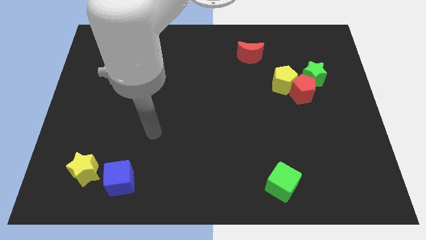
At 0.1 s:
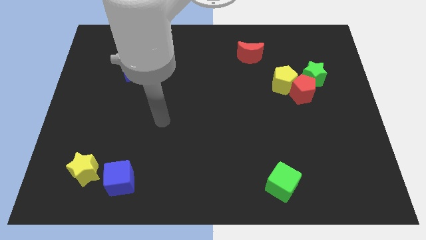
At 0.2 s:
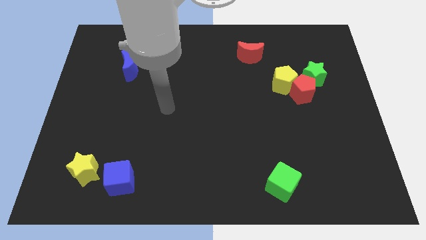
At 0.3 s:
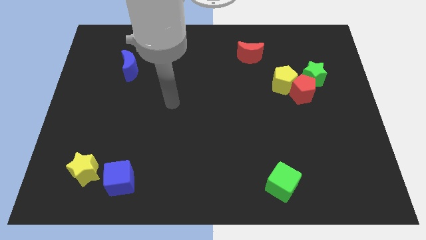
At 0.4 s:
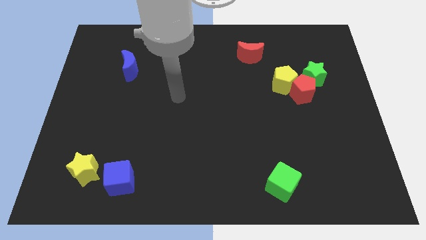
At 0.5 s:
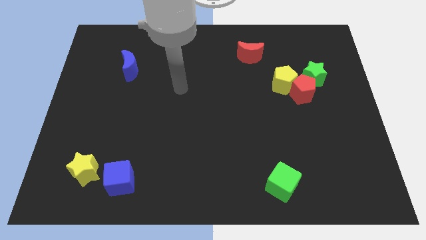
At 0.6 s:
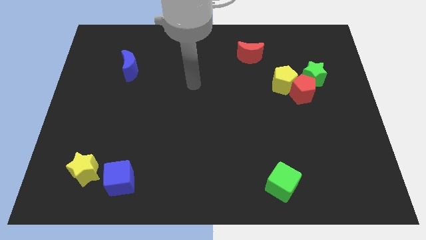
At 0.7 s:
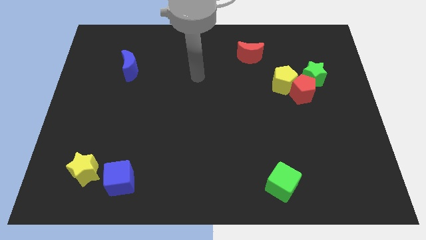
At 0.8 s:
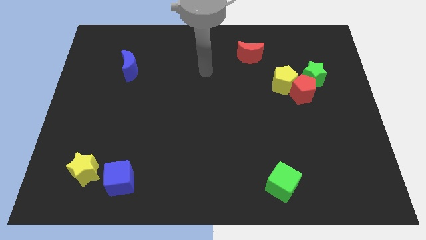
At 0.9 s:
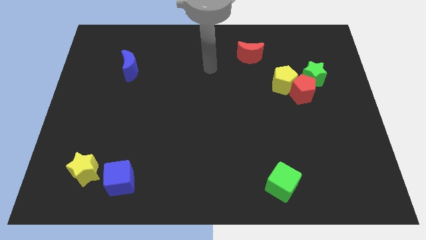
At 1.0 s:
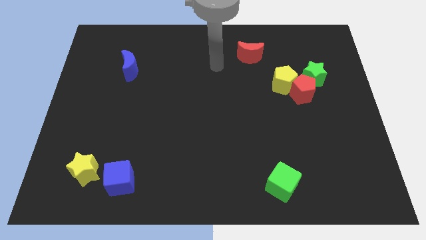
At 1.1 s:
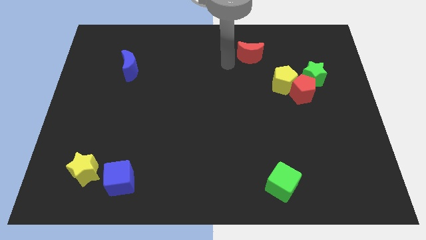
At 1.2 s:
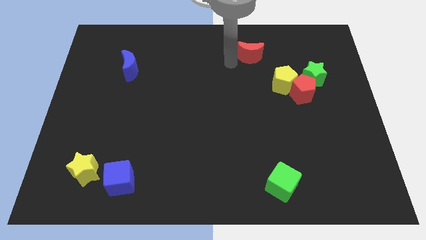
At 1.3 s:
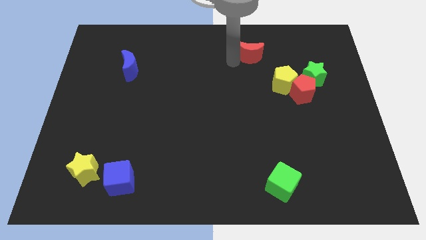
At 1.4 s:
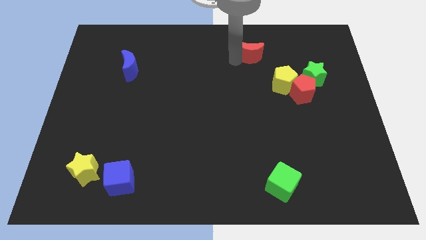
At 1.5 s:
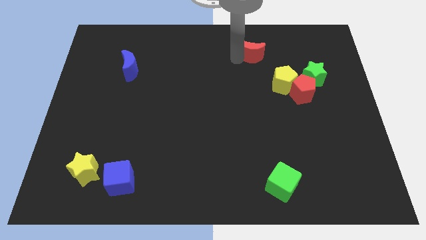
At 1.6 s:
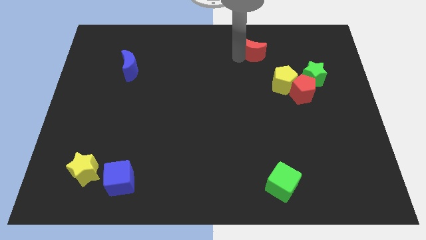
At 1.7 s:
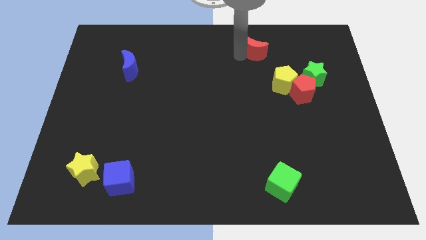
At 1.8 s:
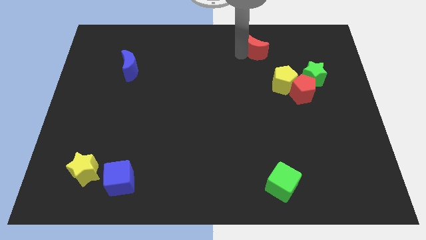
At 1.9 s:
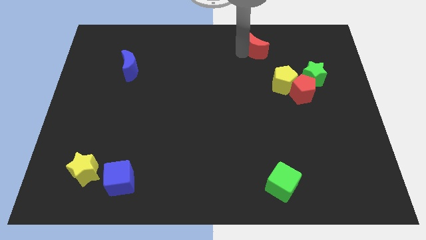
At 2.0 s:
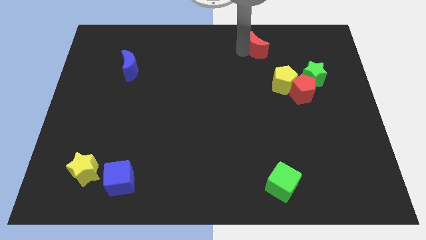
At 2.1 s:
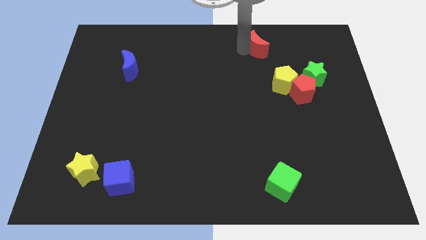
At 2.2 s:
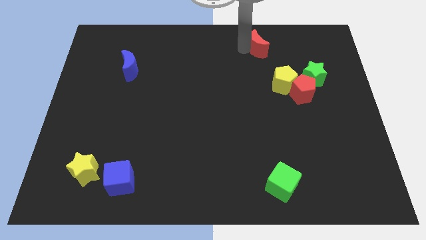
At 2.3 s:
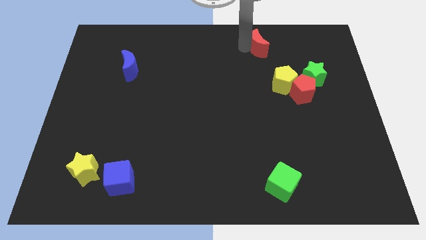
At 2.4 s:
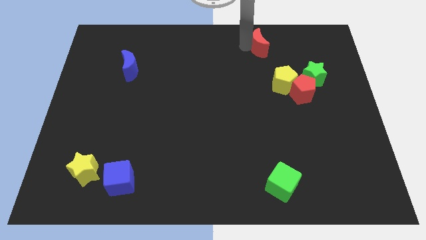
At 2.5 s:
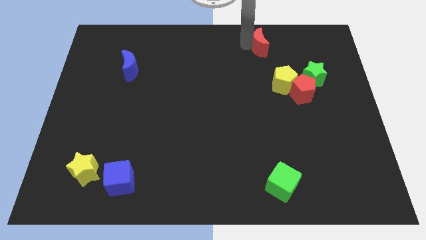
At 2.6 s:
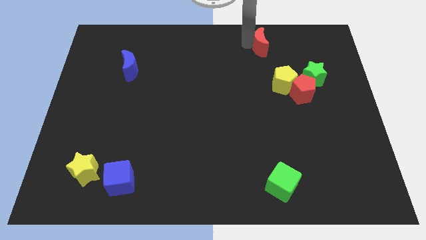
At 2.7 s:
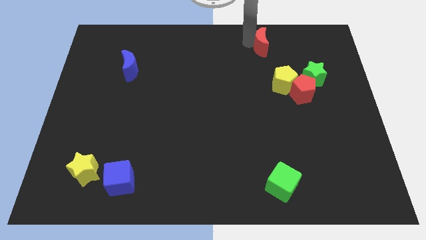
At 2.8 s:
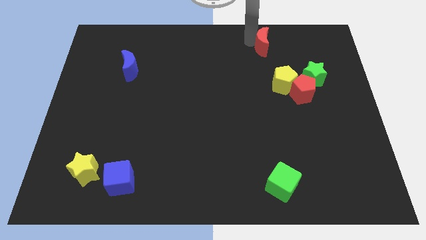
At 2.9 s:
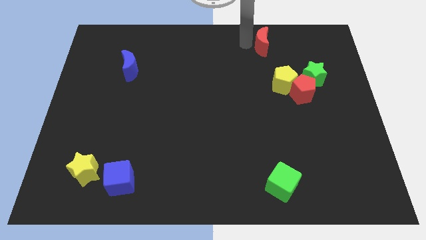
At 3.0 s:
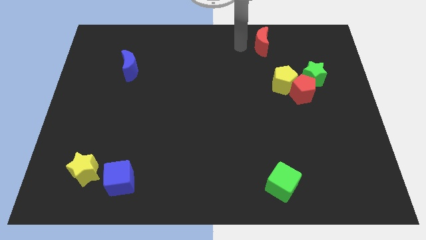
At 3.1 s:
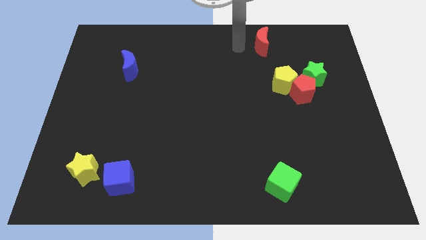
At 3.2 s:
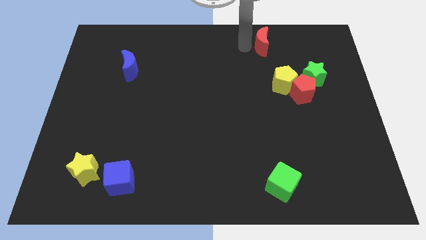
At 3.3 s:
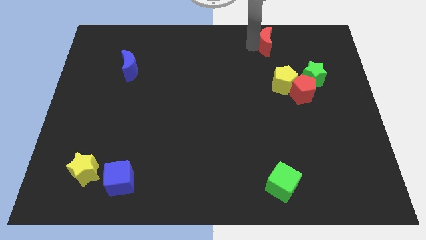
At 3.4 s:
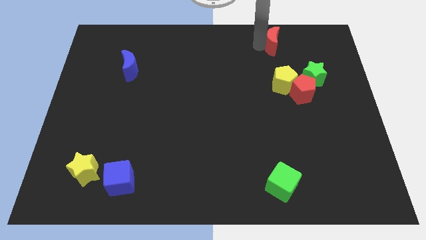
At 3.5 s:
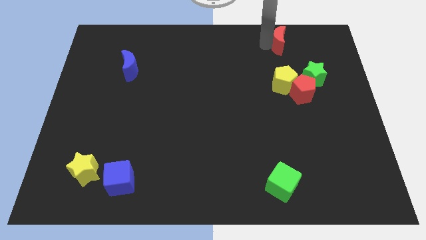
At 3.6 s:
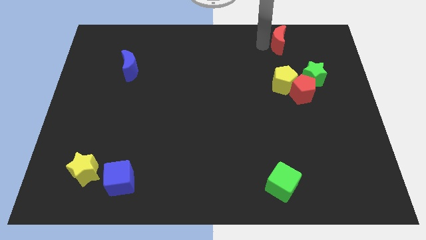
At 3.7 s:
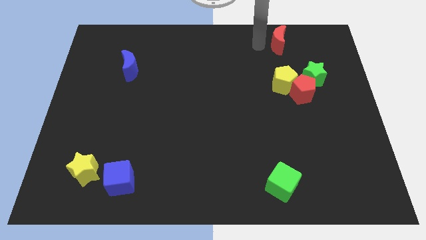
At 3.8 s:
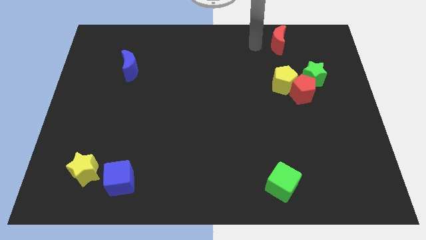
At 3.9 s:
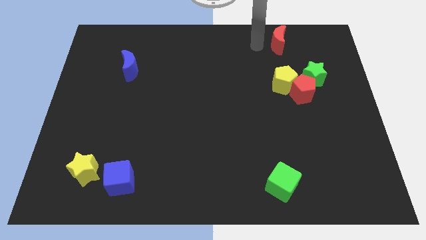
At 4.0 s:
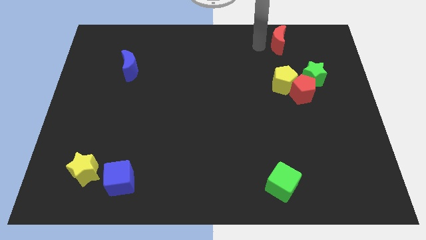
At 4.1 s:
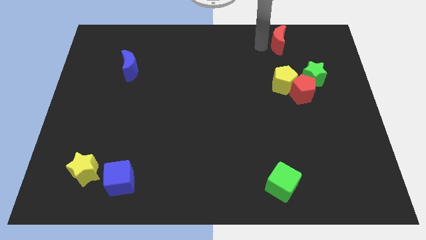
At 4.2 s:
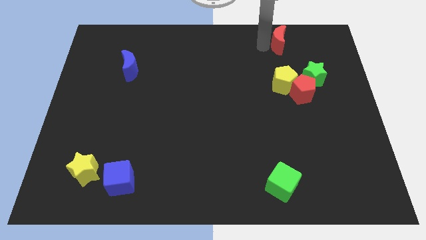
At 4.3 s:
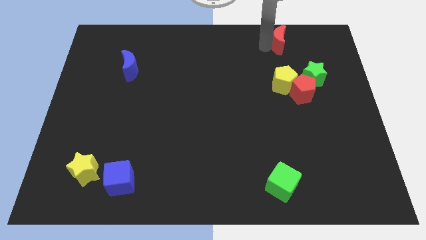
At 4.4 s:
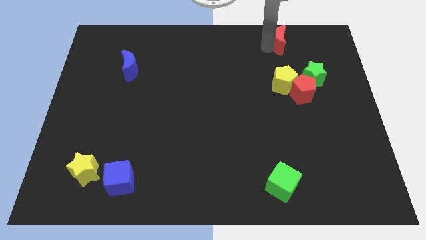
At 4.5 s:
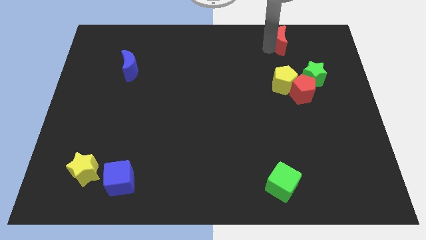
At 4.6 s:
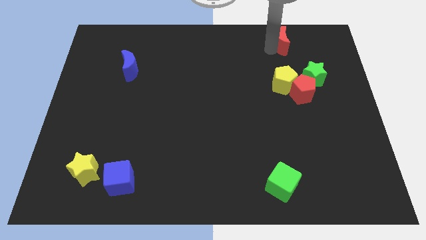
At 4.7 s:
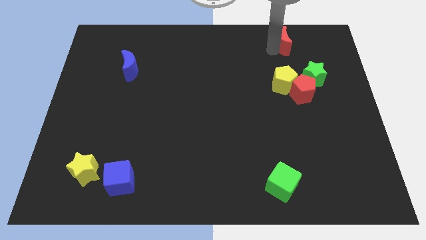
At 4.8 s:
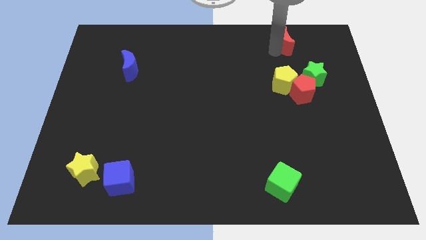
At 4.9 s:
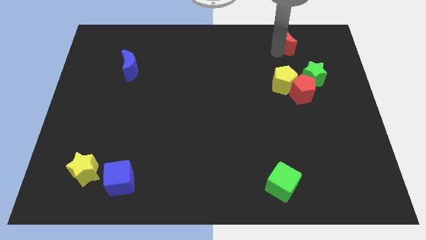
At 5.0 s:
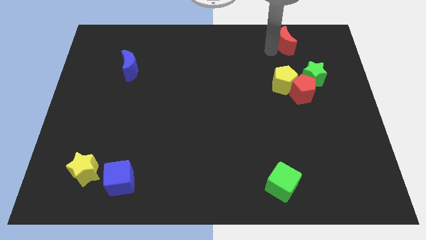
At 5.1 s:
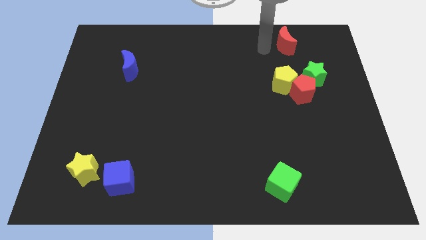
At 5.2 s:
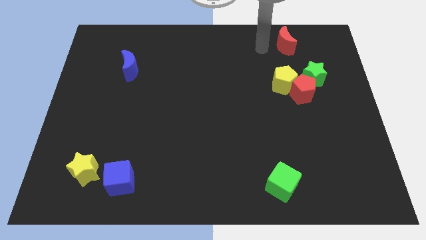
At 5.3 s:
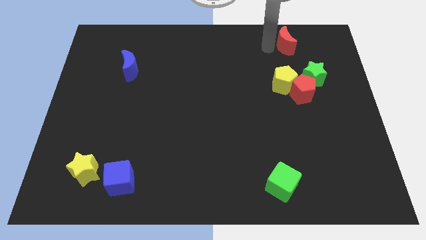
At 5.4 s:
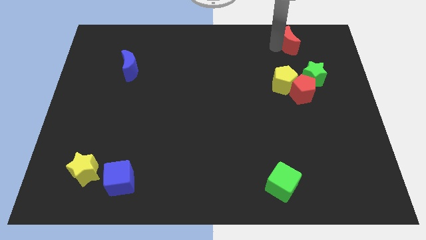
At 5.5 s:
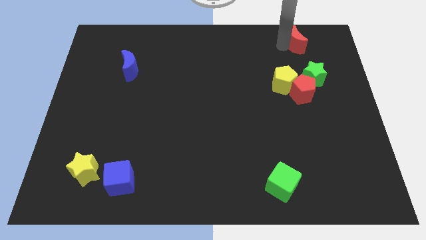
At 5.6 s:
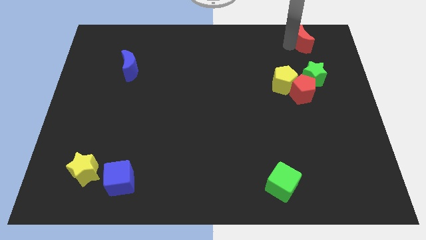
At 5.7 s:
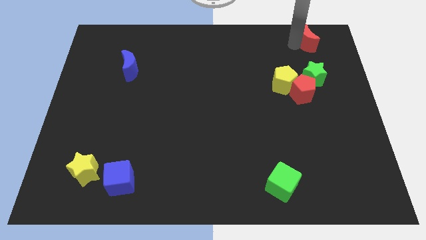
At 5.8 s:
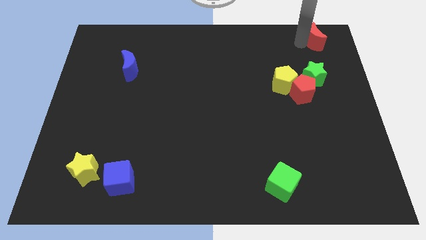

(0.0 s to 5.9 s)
put the red moon to the top right corner

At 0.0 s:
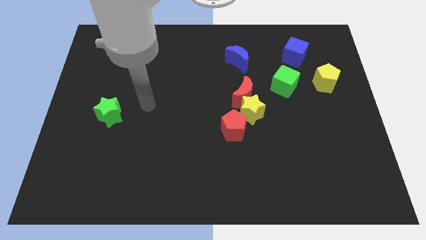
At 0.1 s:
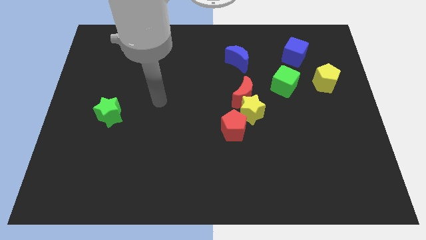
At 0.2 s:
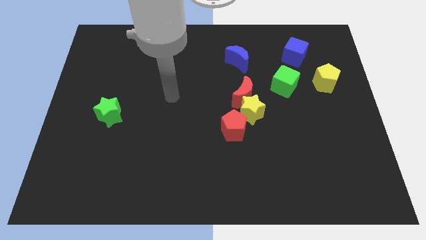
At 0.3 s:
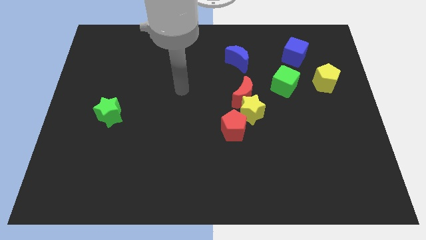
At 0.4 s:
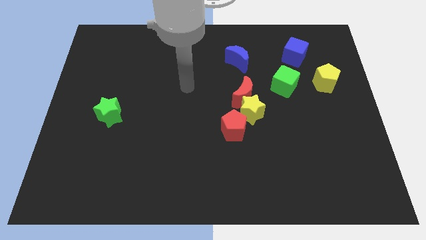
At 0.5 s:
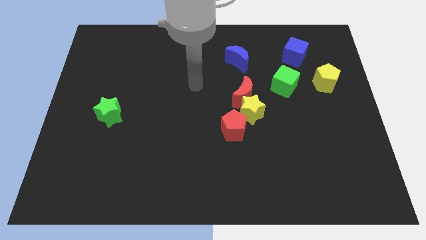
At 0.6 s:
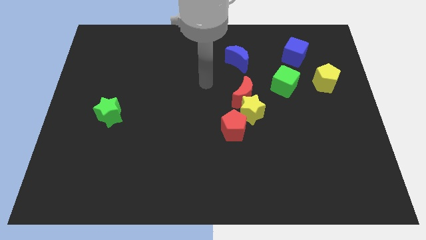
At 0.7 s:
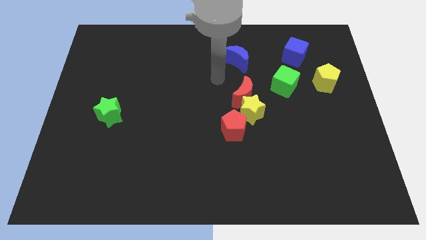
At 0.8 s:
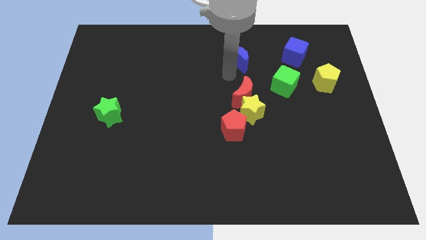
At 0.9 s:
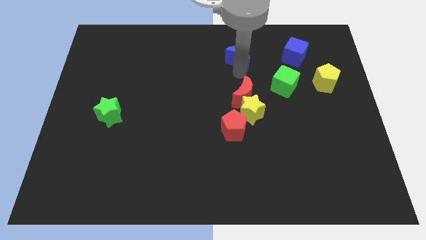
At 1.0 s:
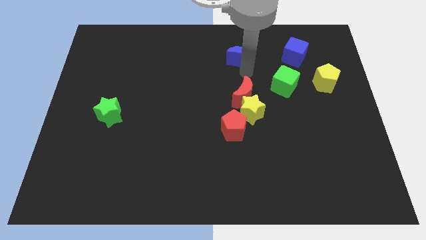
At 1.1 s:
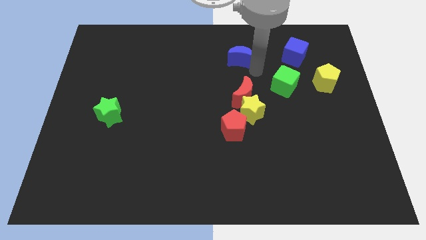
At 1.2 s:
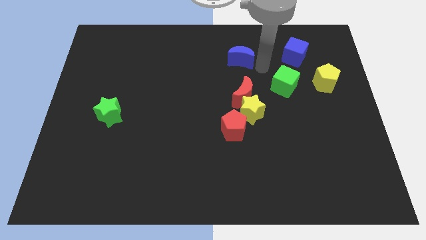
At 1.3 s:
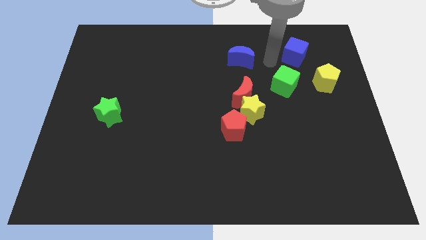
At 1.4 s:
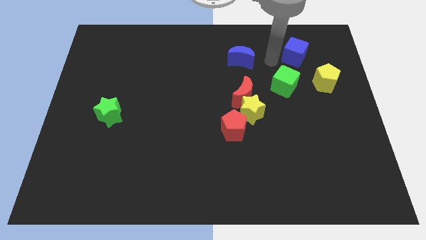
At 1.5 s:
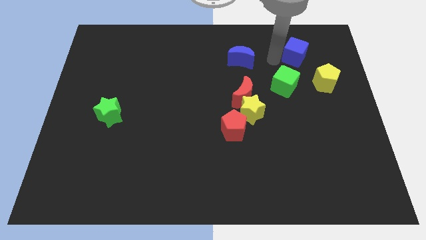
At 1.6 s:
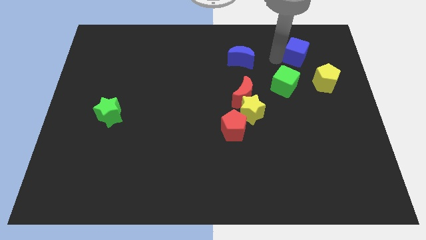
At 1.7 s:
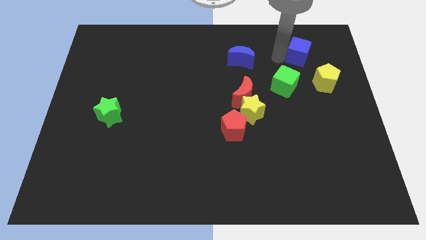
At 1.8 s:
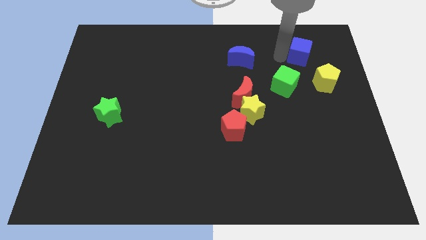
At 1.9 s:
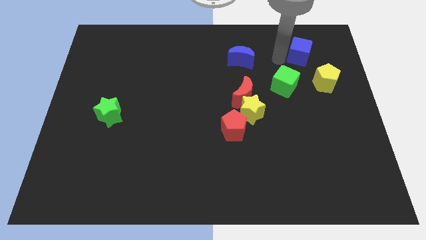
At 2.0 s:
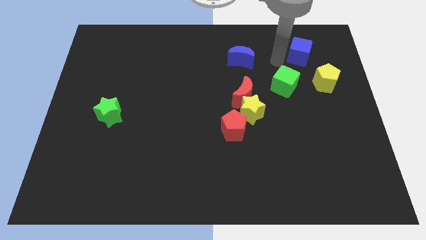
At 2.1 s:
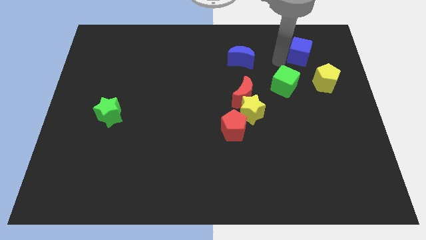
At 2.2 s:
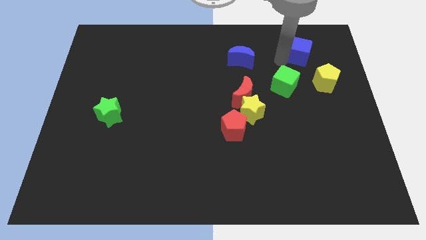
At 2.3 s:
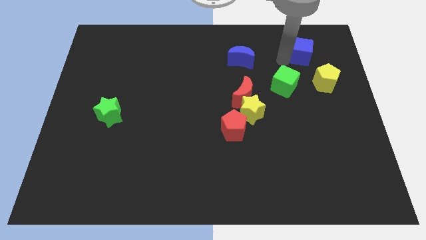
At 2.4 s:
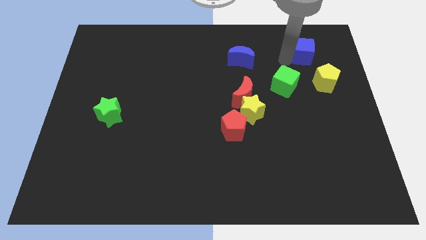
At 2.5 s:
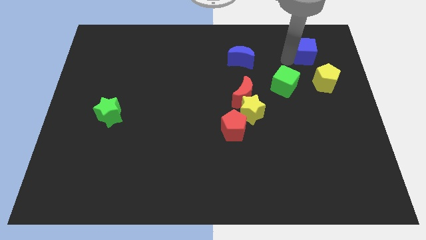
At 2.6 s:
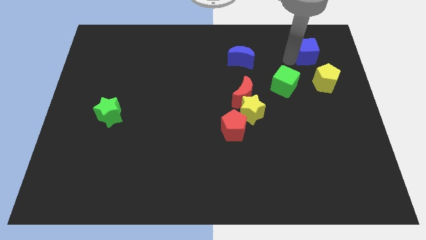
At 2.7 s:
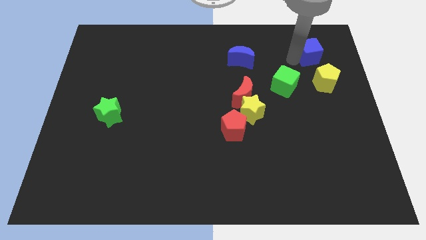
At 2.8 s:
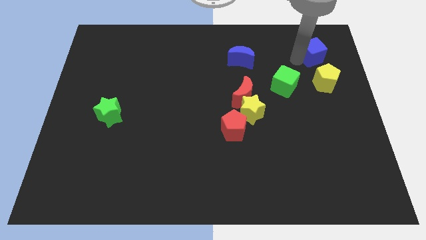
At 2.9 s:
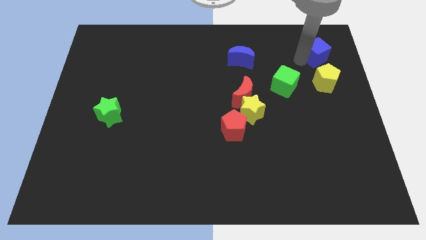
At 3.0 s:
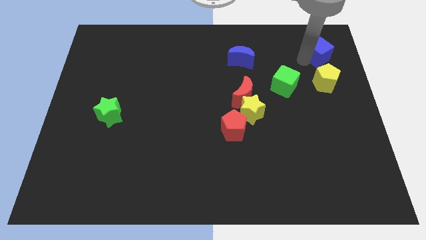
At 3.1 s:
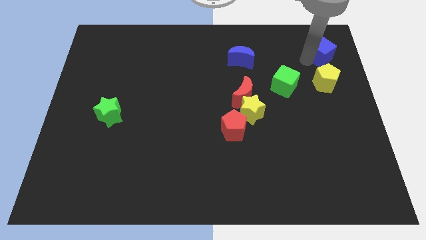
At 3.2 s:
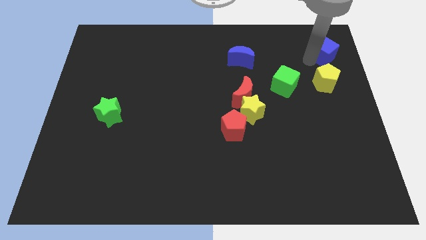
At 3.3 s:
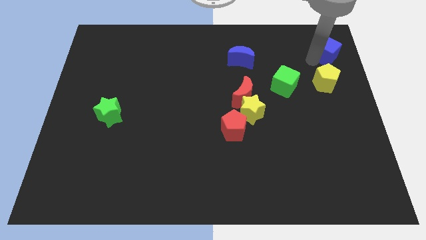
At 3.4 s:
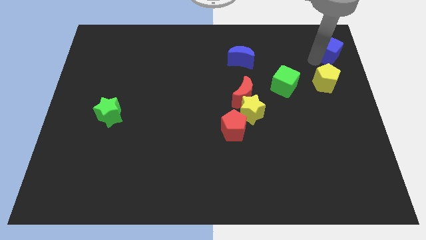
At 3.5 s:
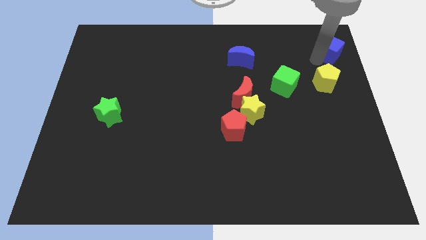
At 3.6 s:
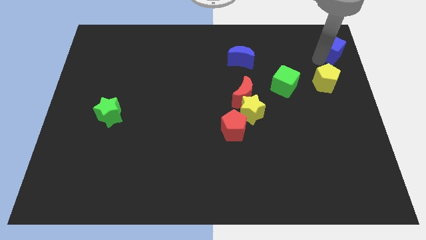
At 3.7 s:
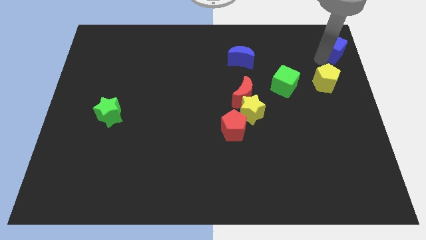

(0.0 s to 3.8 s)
put the blue cube to the upper right corner
